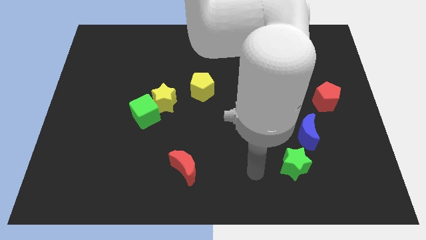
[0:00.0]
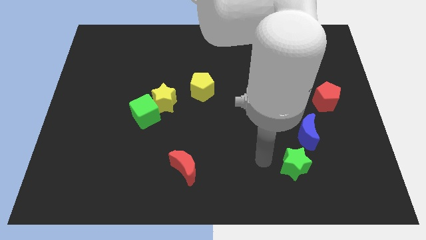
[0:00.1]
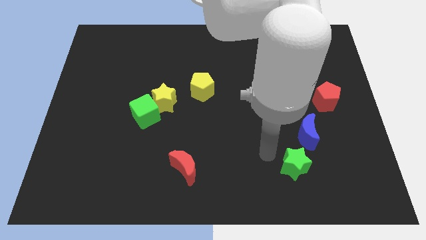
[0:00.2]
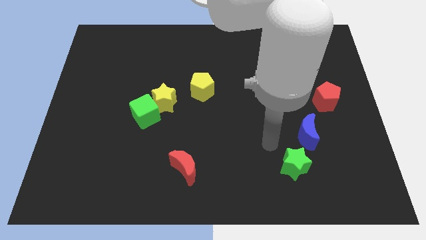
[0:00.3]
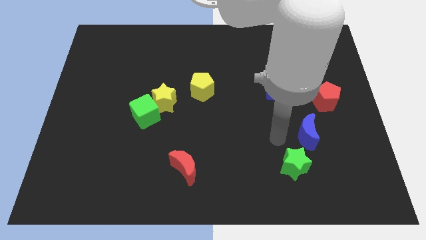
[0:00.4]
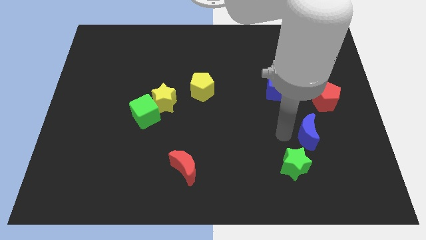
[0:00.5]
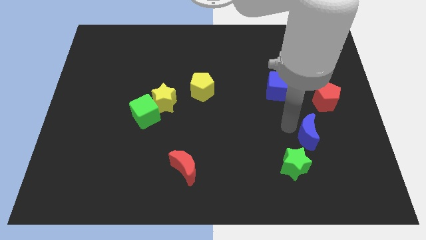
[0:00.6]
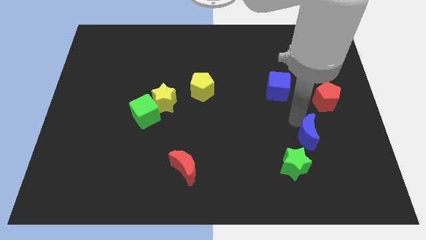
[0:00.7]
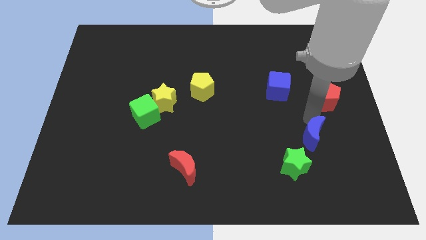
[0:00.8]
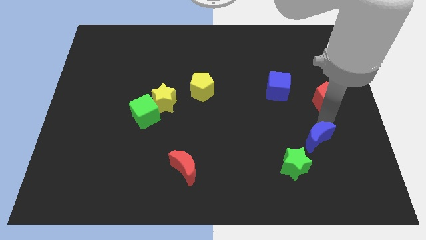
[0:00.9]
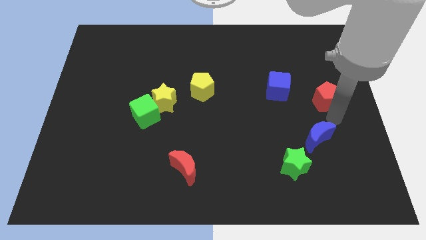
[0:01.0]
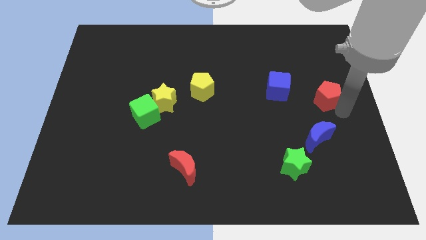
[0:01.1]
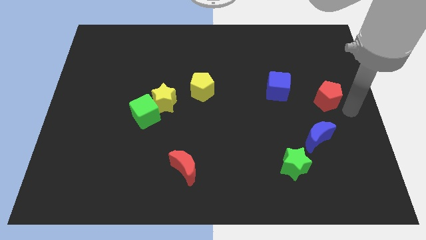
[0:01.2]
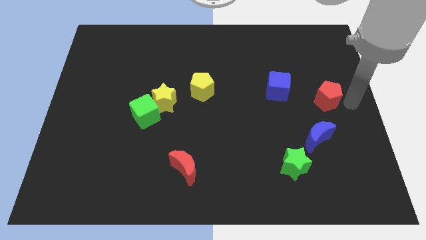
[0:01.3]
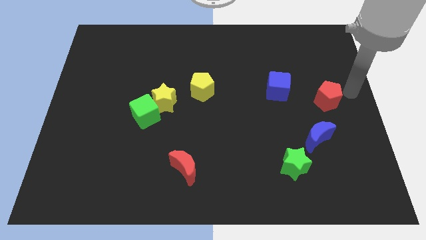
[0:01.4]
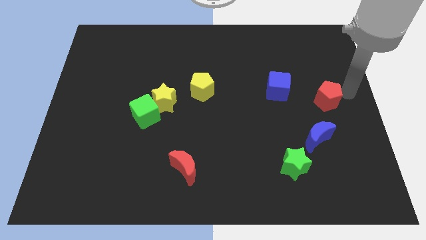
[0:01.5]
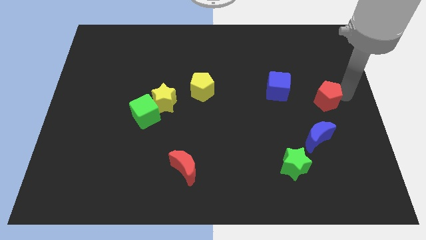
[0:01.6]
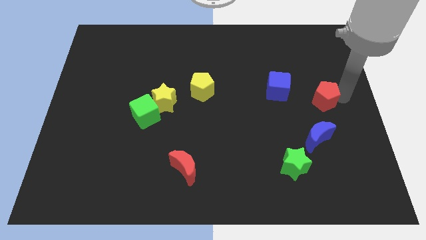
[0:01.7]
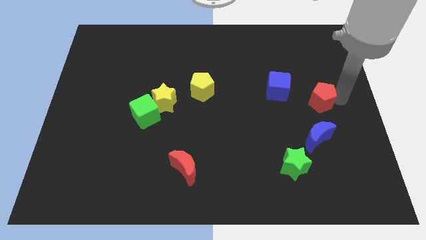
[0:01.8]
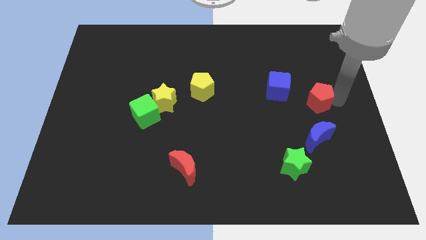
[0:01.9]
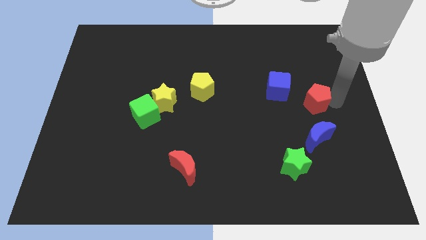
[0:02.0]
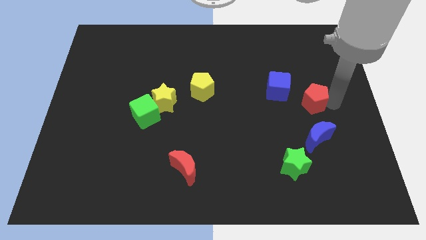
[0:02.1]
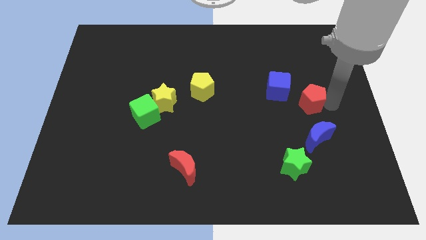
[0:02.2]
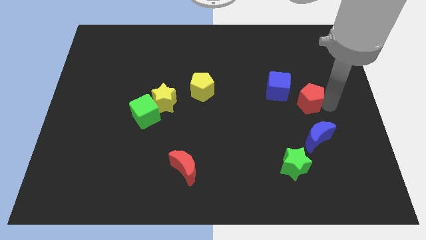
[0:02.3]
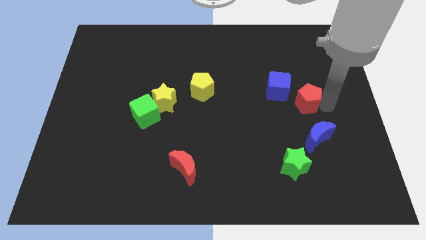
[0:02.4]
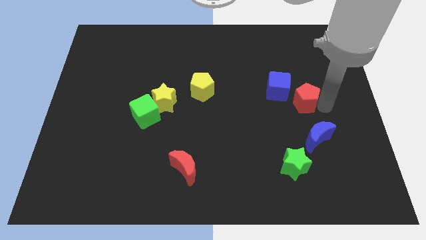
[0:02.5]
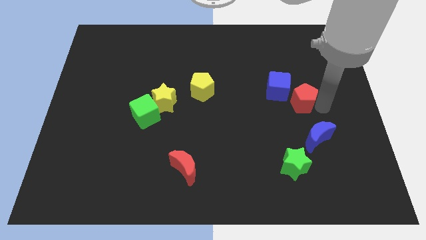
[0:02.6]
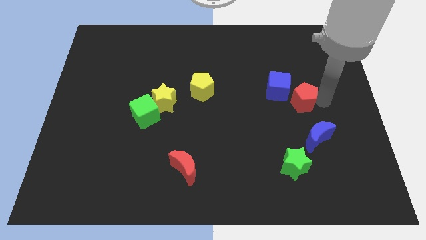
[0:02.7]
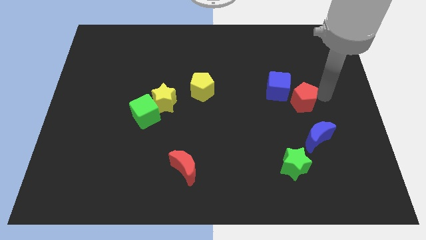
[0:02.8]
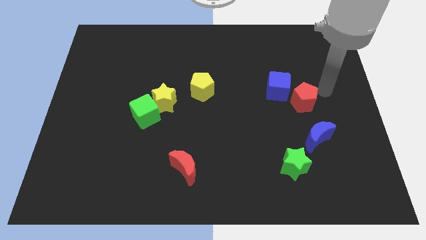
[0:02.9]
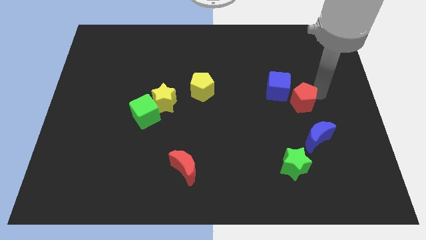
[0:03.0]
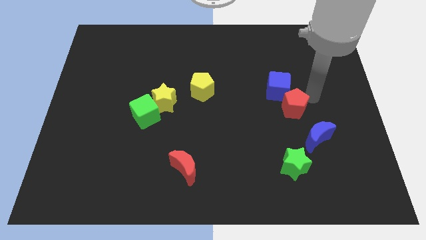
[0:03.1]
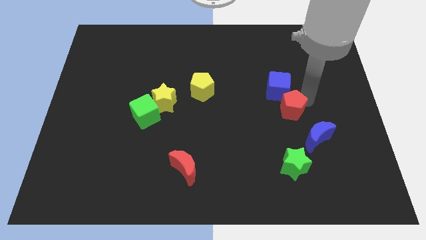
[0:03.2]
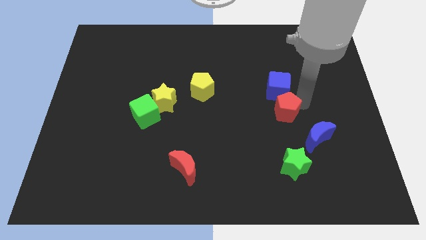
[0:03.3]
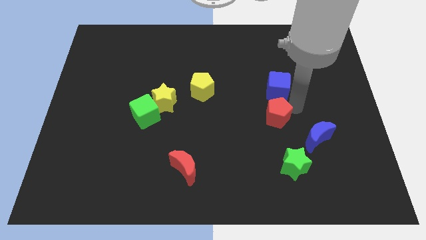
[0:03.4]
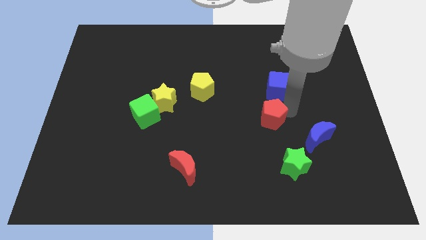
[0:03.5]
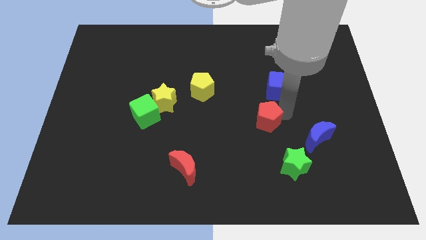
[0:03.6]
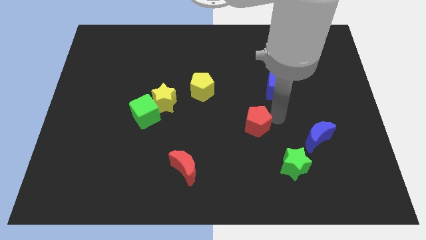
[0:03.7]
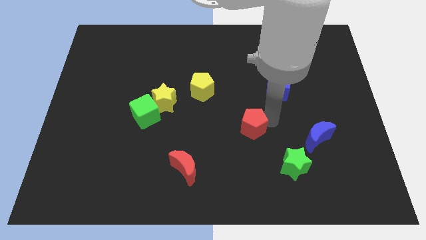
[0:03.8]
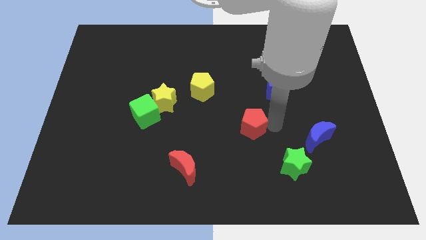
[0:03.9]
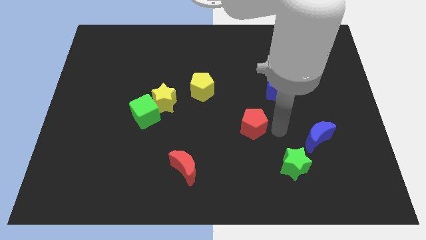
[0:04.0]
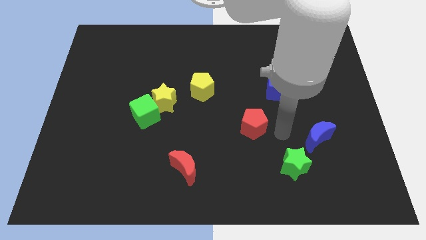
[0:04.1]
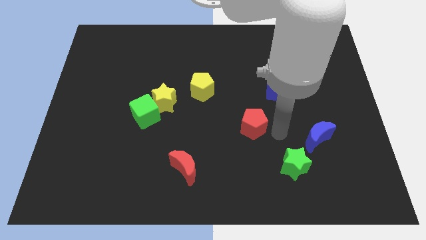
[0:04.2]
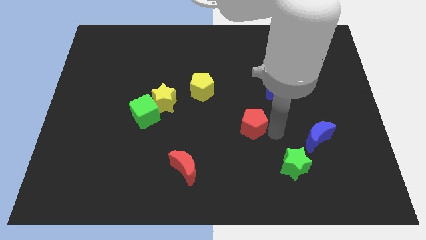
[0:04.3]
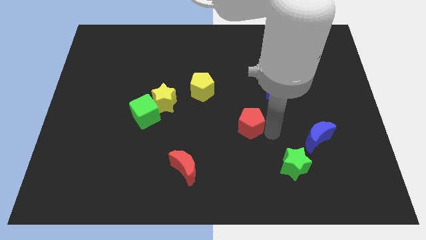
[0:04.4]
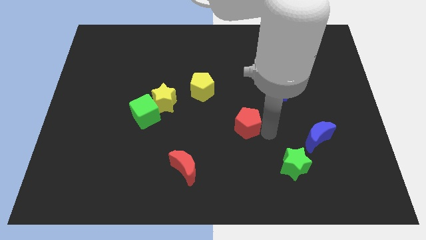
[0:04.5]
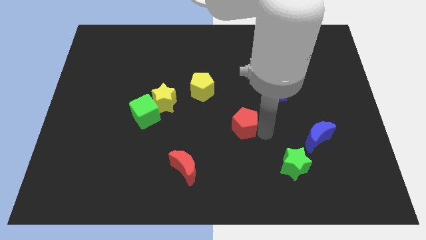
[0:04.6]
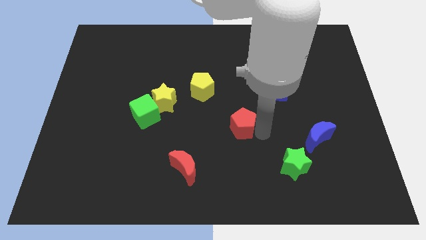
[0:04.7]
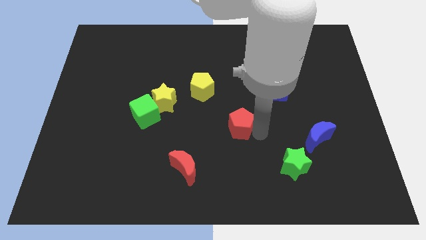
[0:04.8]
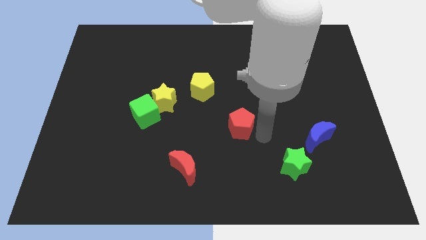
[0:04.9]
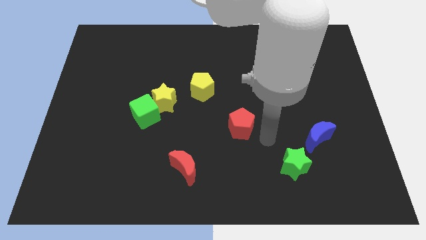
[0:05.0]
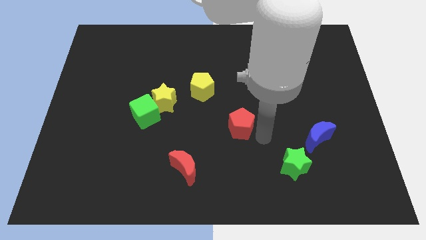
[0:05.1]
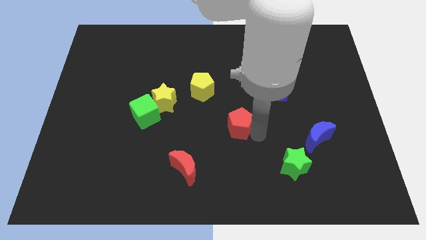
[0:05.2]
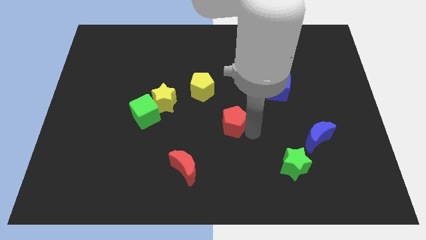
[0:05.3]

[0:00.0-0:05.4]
move the red pentagon left

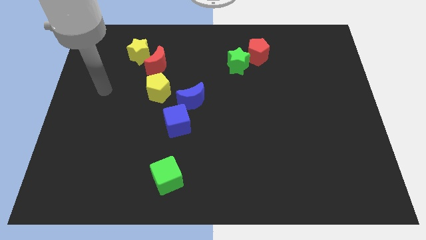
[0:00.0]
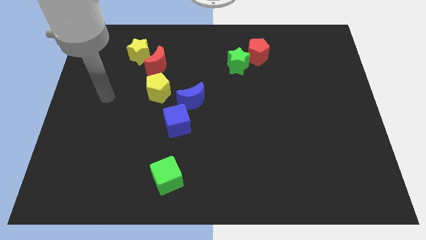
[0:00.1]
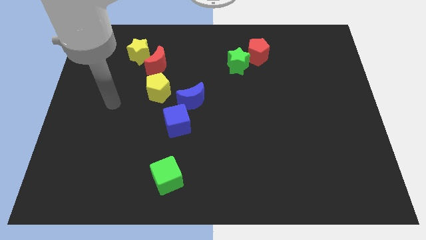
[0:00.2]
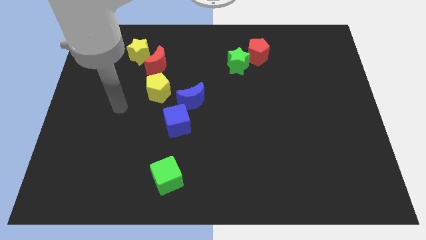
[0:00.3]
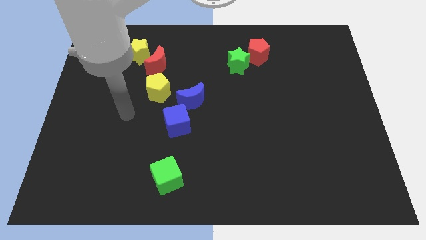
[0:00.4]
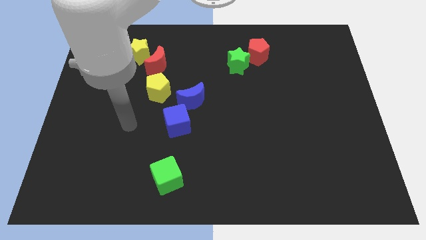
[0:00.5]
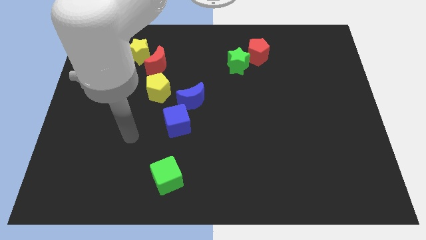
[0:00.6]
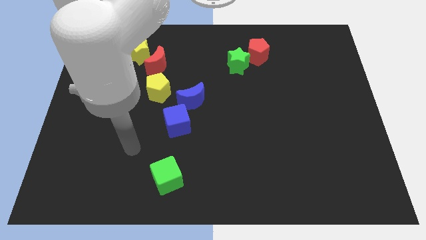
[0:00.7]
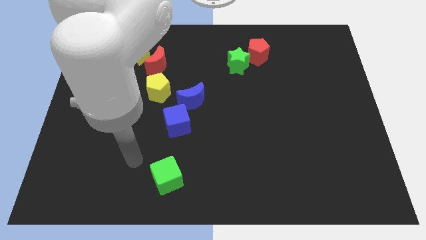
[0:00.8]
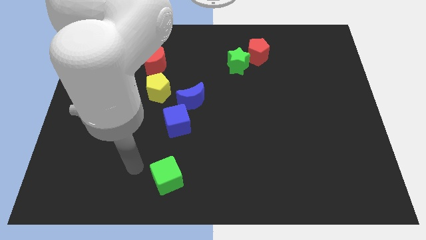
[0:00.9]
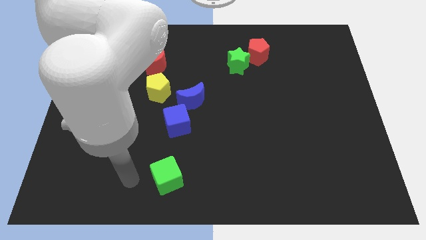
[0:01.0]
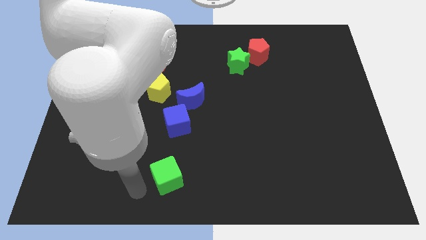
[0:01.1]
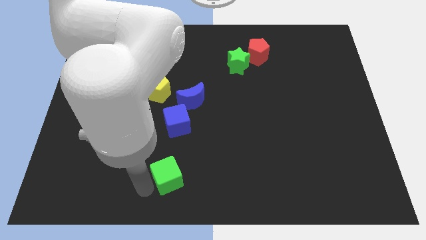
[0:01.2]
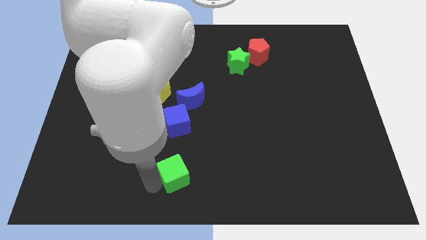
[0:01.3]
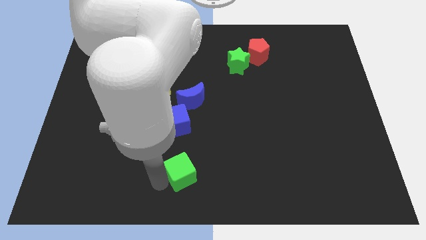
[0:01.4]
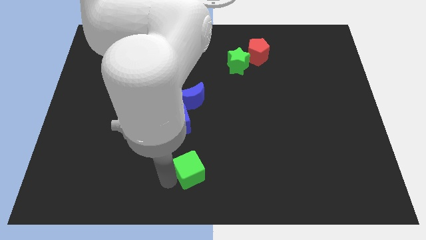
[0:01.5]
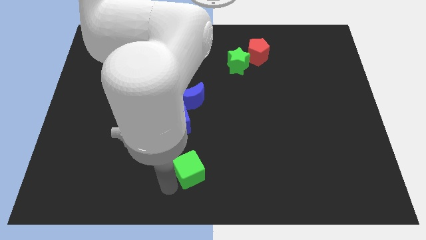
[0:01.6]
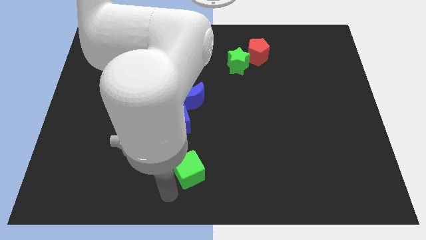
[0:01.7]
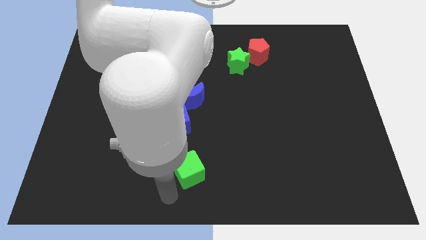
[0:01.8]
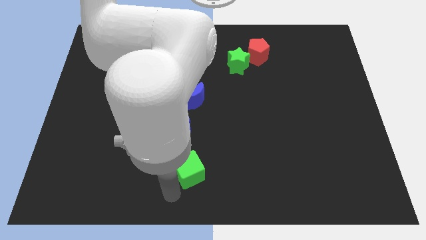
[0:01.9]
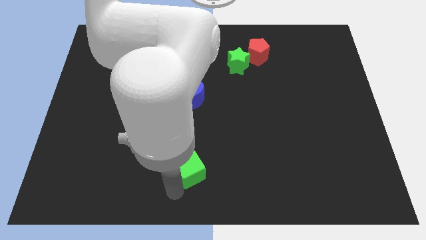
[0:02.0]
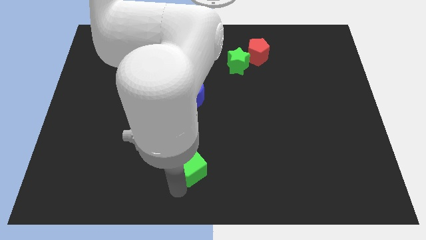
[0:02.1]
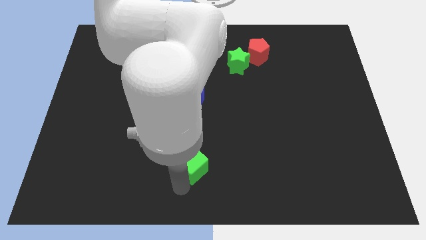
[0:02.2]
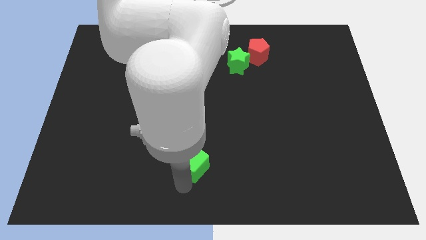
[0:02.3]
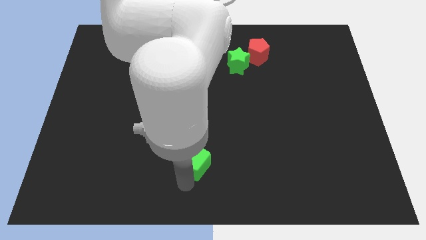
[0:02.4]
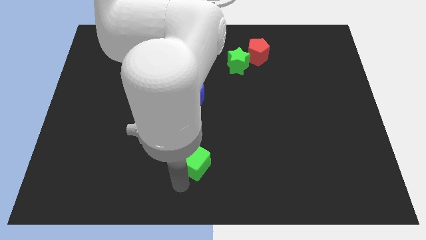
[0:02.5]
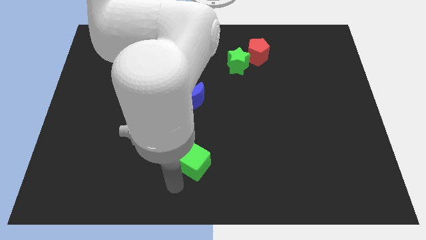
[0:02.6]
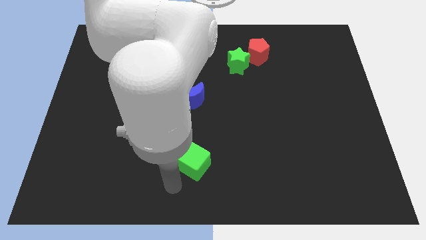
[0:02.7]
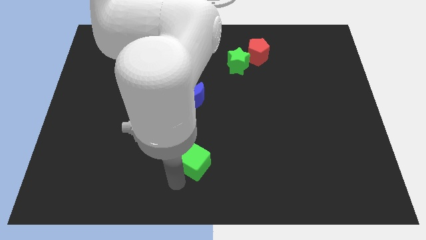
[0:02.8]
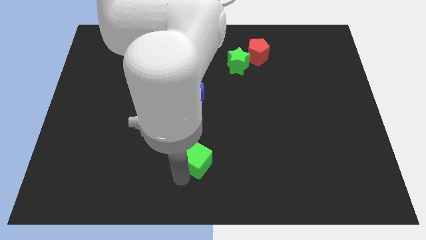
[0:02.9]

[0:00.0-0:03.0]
slightly slide the green cube up and then to the right
